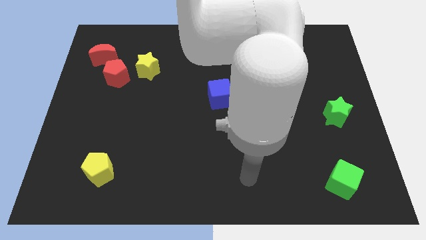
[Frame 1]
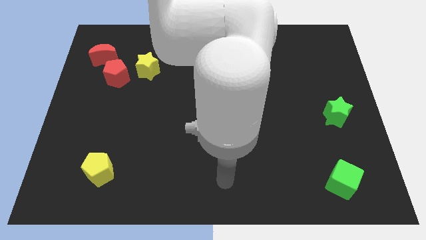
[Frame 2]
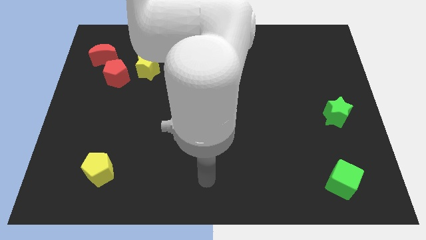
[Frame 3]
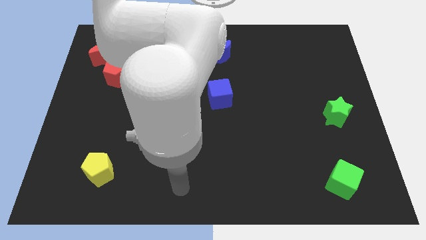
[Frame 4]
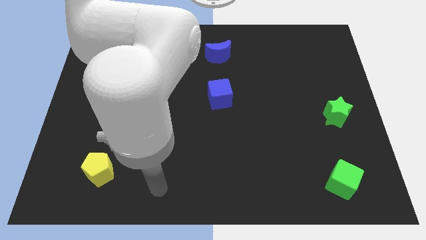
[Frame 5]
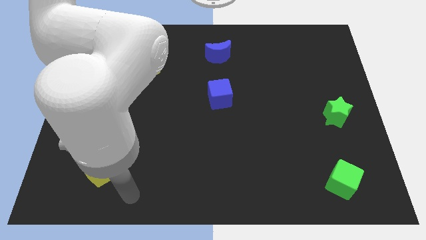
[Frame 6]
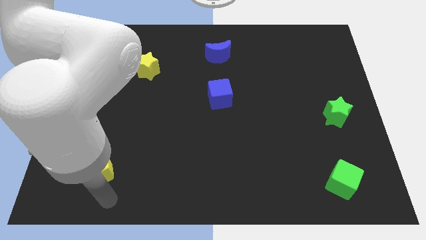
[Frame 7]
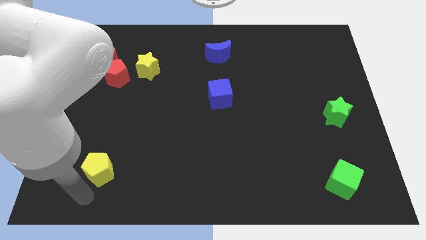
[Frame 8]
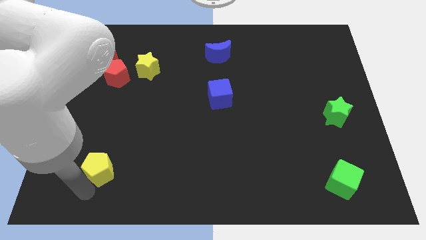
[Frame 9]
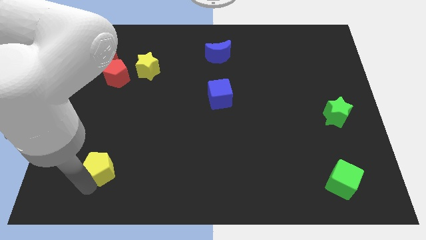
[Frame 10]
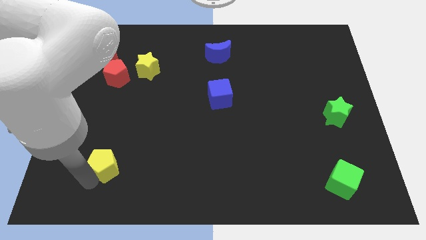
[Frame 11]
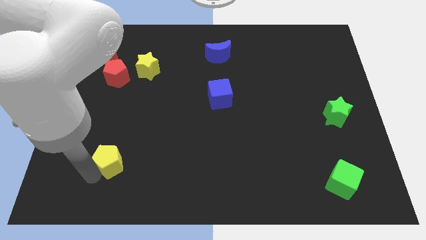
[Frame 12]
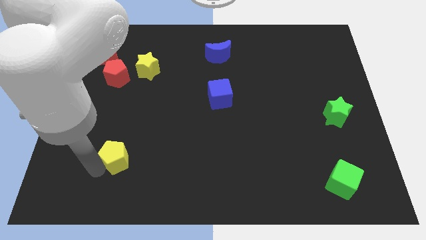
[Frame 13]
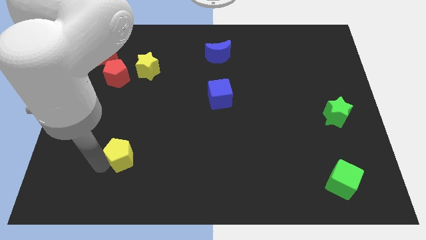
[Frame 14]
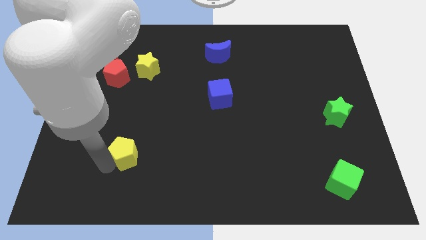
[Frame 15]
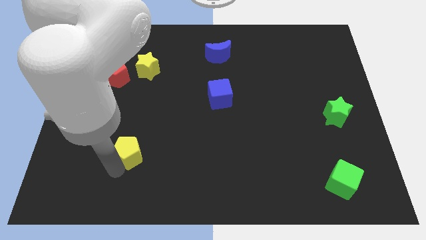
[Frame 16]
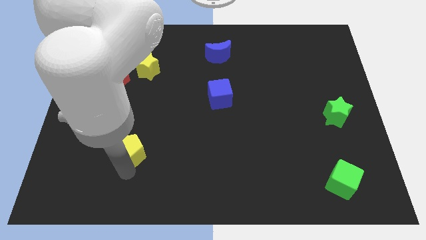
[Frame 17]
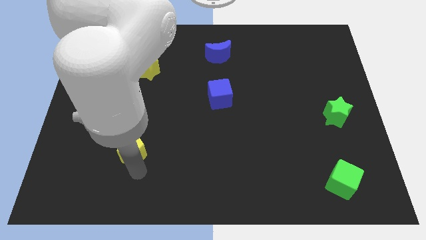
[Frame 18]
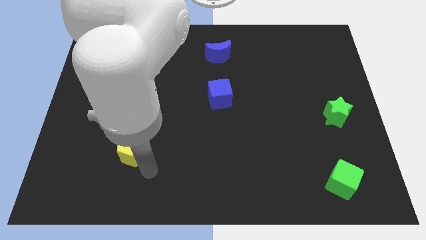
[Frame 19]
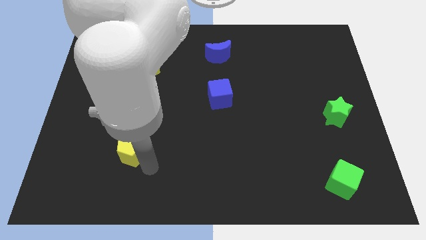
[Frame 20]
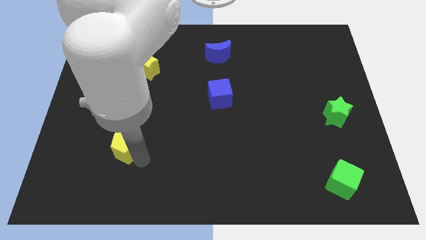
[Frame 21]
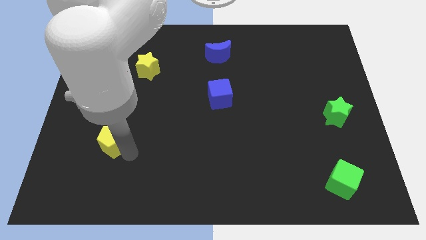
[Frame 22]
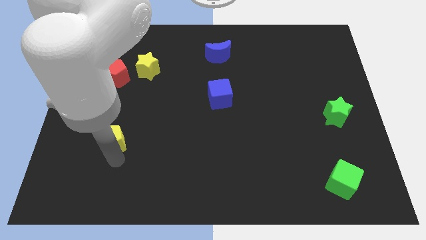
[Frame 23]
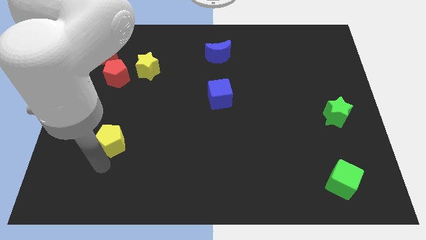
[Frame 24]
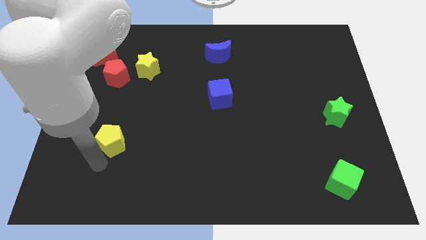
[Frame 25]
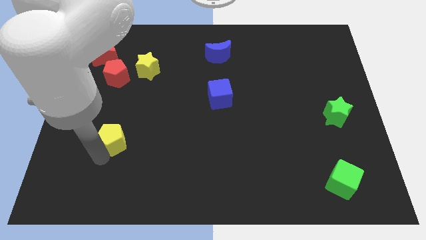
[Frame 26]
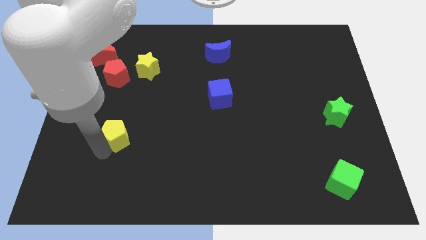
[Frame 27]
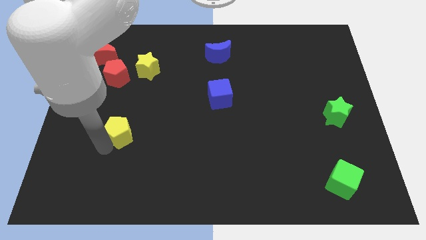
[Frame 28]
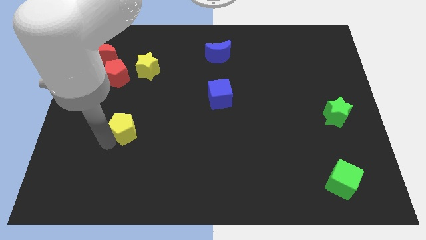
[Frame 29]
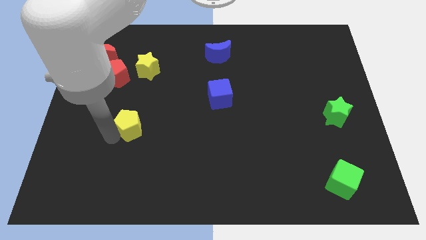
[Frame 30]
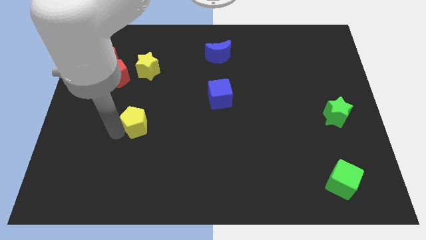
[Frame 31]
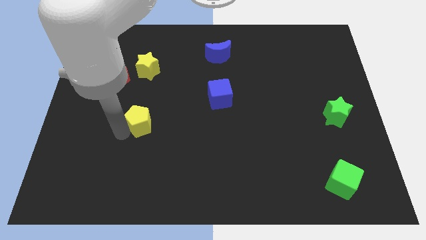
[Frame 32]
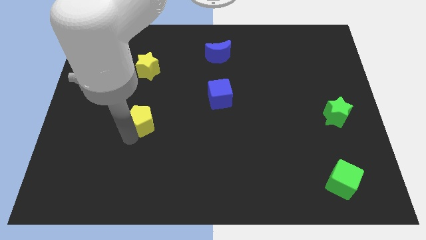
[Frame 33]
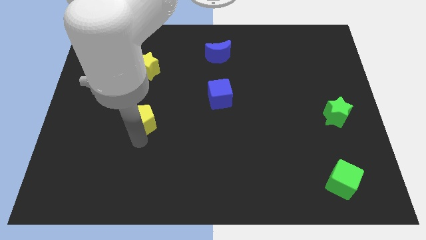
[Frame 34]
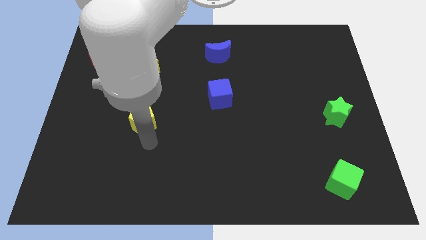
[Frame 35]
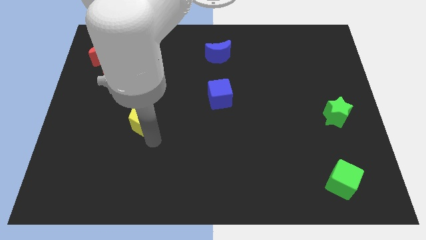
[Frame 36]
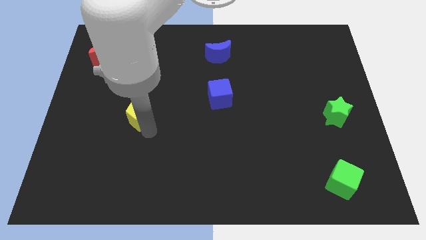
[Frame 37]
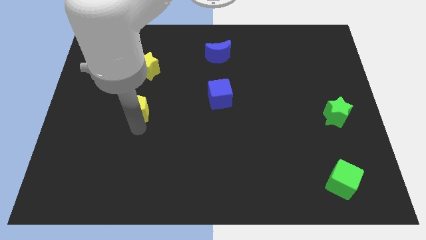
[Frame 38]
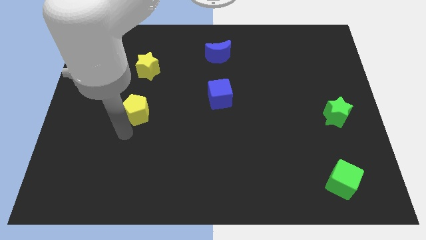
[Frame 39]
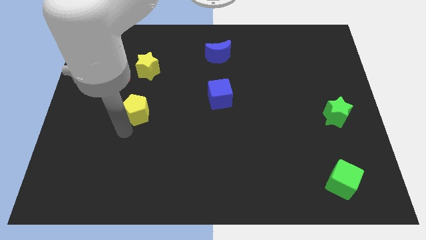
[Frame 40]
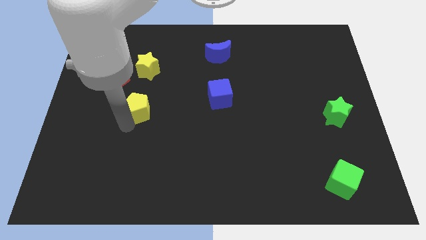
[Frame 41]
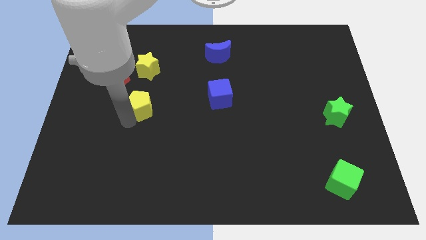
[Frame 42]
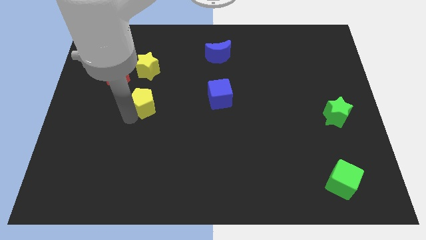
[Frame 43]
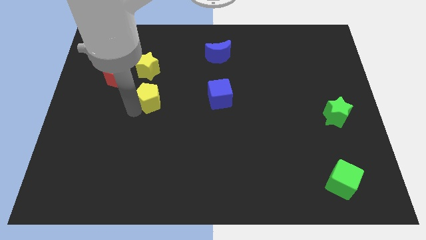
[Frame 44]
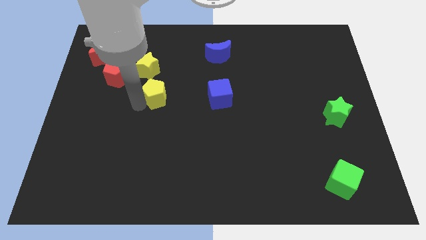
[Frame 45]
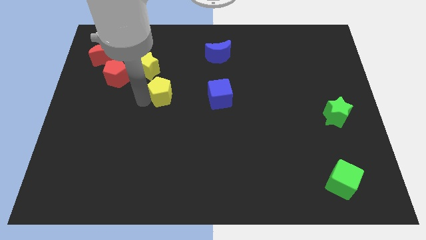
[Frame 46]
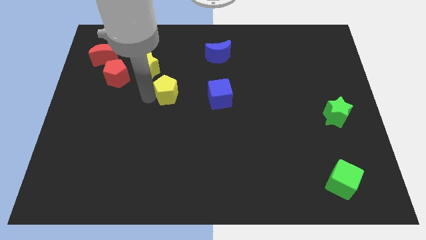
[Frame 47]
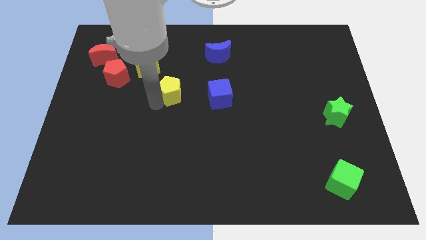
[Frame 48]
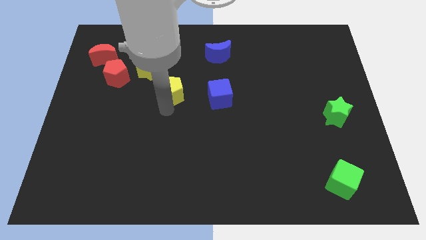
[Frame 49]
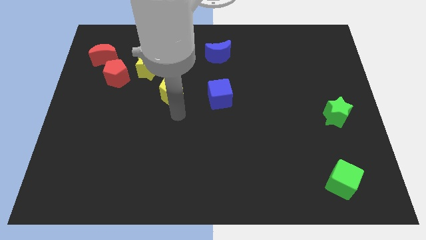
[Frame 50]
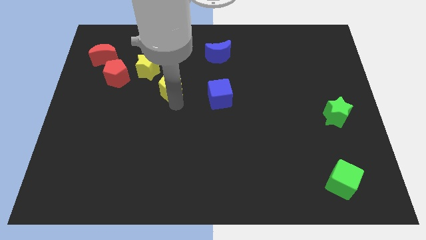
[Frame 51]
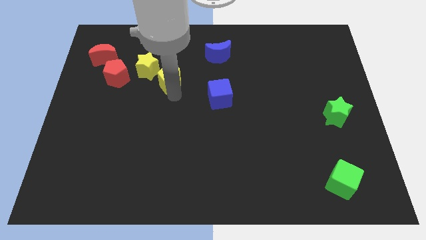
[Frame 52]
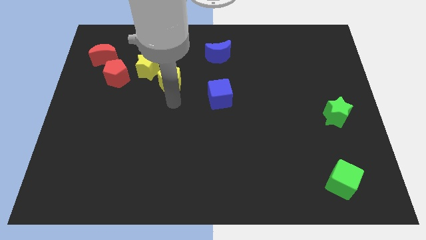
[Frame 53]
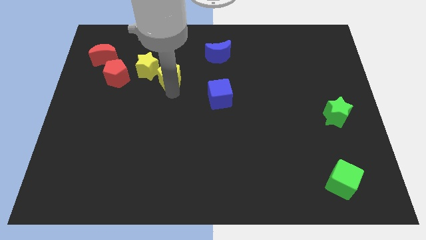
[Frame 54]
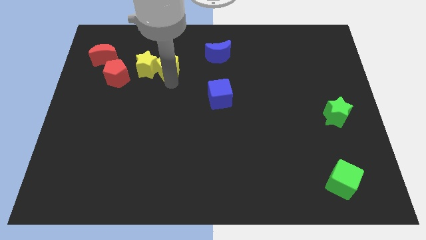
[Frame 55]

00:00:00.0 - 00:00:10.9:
move the yellow pentagon upwards

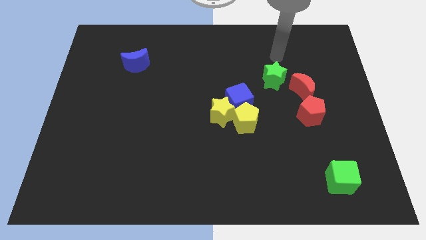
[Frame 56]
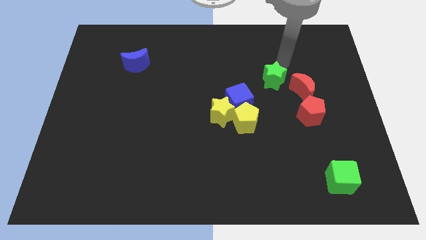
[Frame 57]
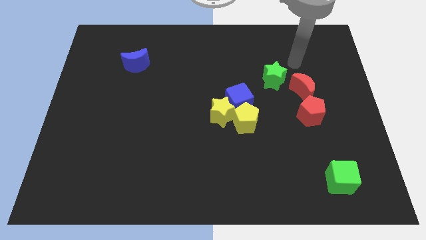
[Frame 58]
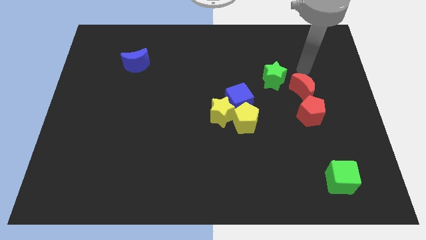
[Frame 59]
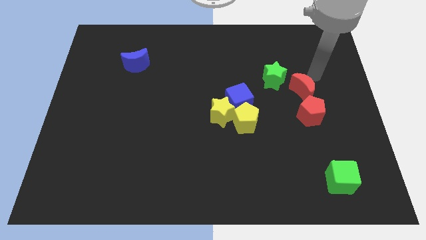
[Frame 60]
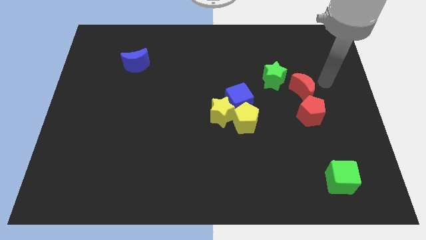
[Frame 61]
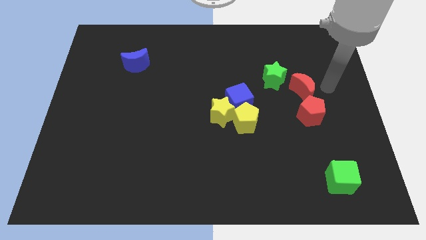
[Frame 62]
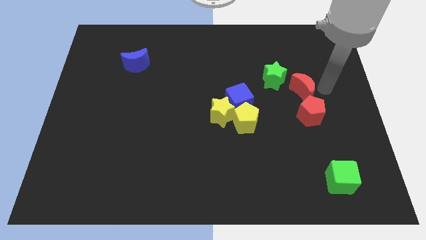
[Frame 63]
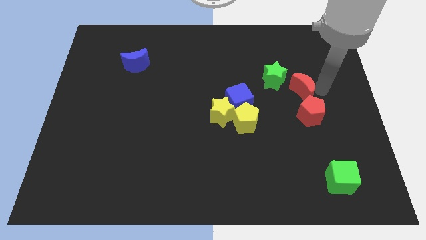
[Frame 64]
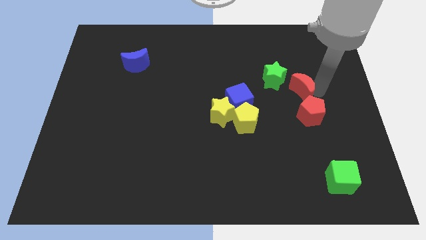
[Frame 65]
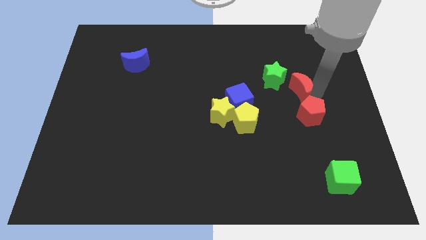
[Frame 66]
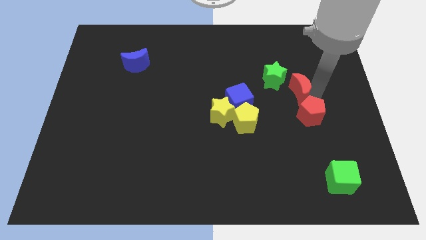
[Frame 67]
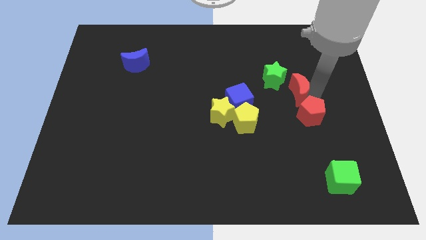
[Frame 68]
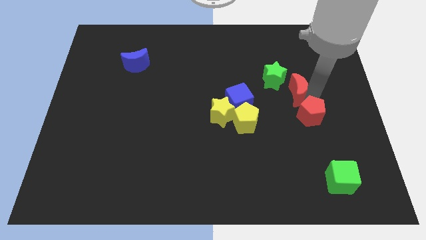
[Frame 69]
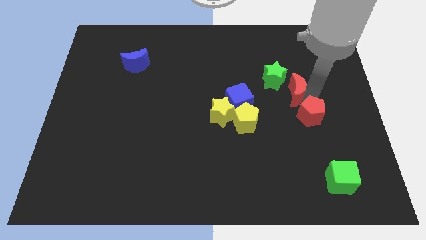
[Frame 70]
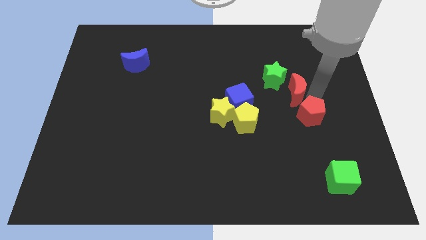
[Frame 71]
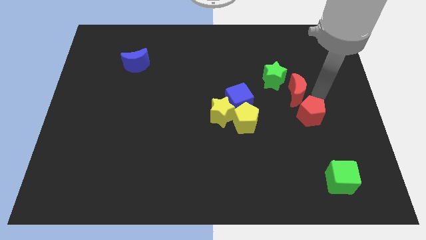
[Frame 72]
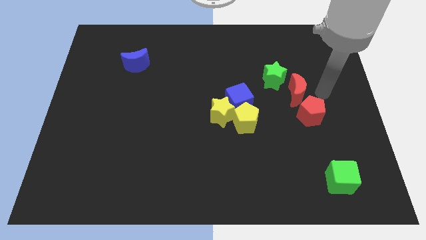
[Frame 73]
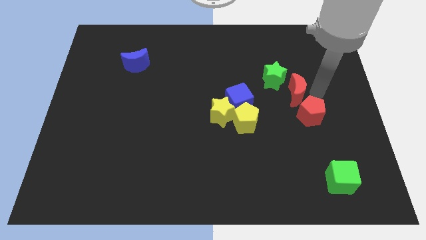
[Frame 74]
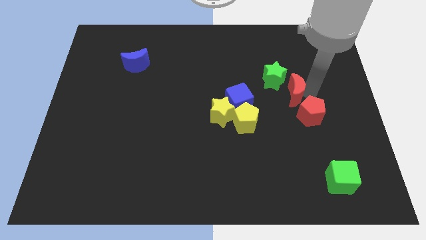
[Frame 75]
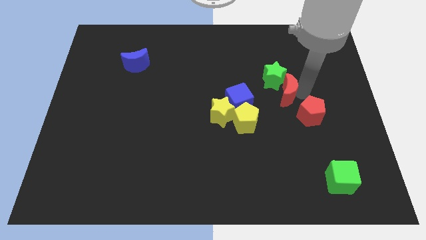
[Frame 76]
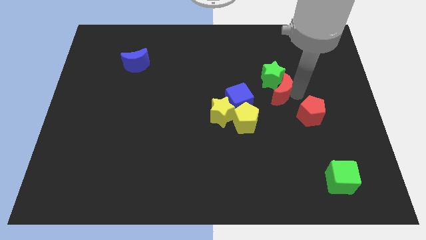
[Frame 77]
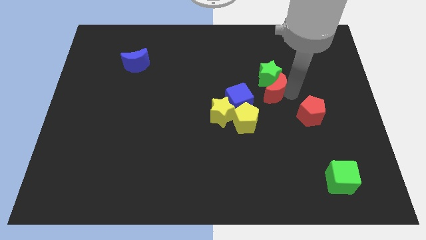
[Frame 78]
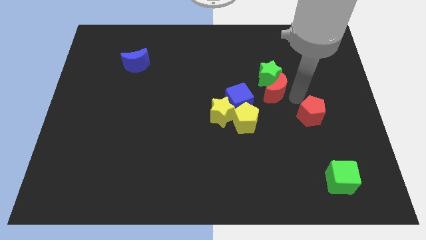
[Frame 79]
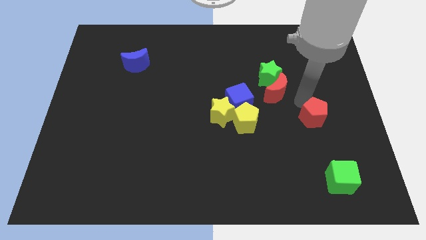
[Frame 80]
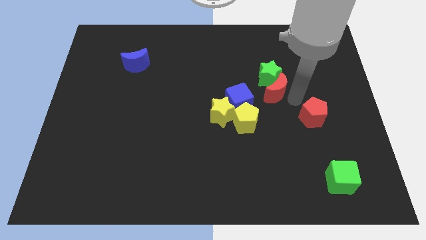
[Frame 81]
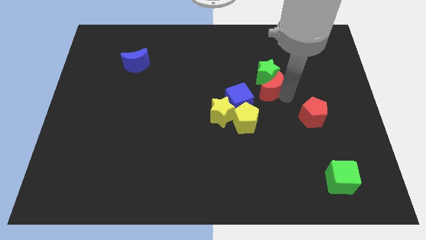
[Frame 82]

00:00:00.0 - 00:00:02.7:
move the red moon left a little

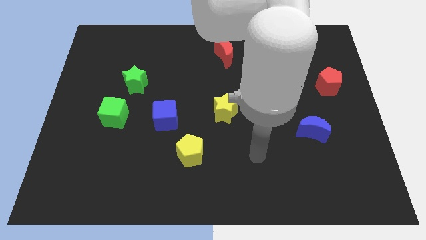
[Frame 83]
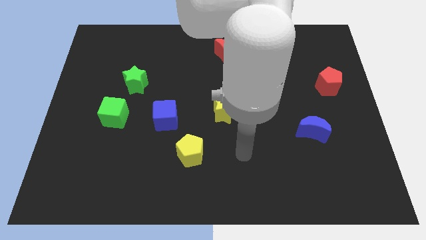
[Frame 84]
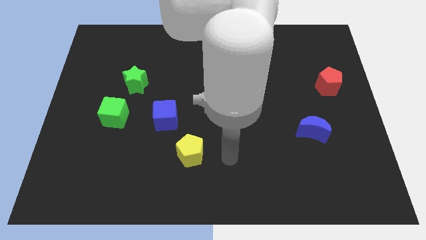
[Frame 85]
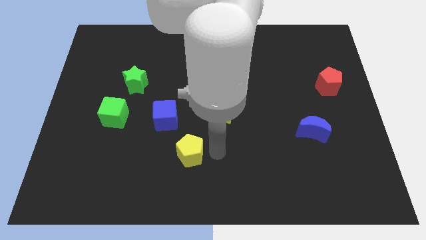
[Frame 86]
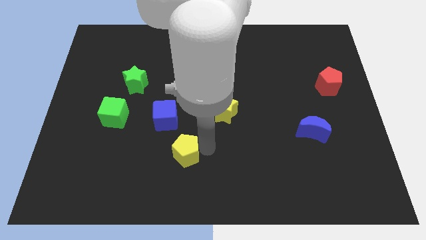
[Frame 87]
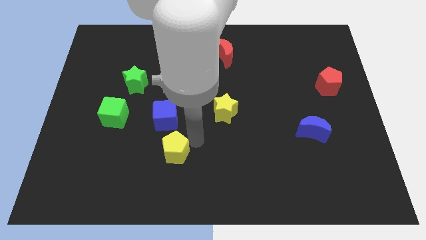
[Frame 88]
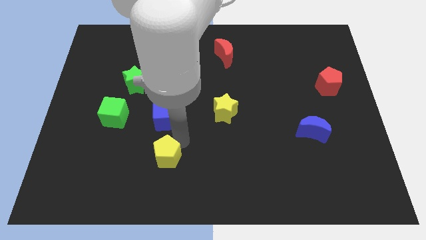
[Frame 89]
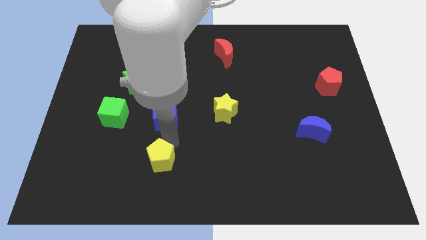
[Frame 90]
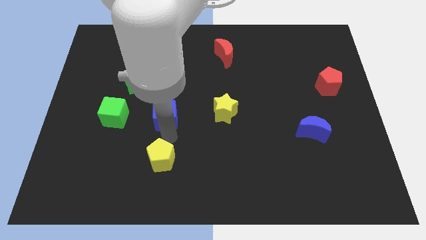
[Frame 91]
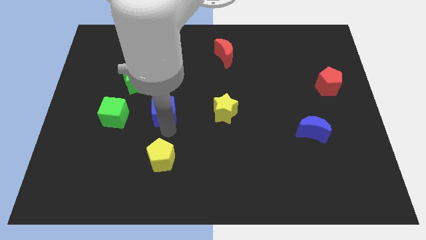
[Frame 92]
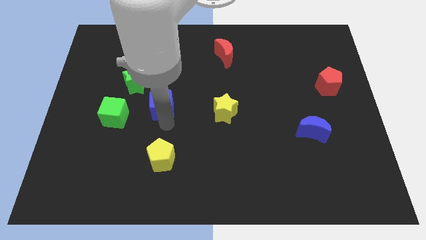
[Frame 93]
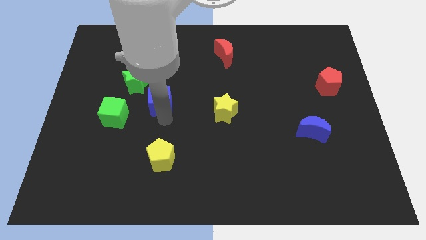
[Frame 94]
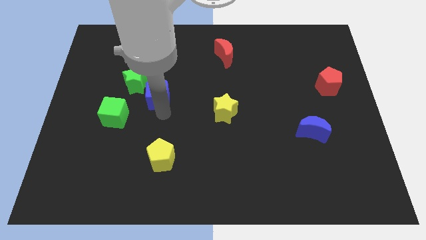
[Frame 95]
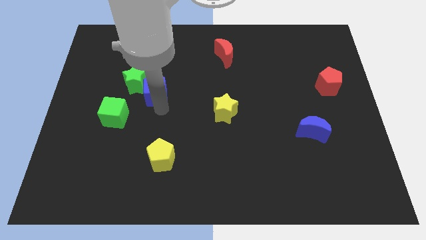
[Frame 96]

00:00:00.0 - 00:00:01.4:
slightly move the blue cube up and then left
